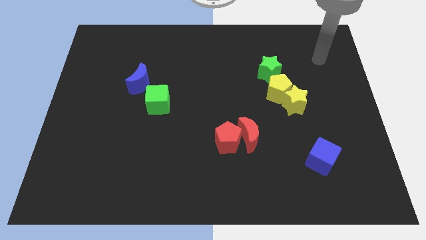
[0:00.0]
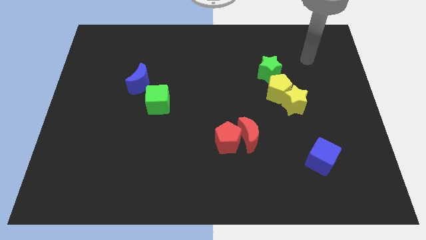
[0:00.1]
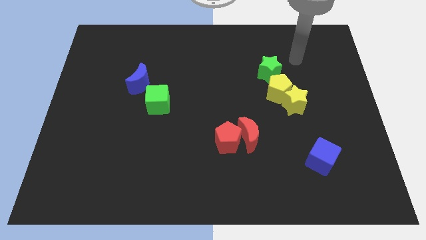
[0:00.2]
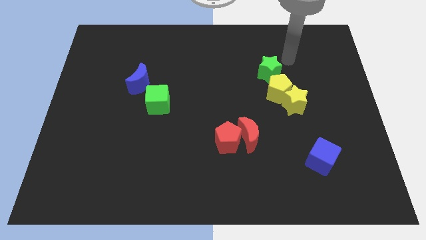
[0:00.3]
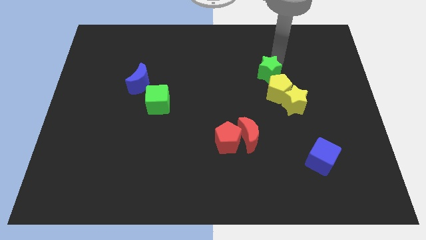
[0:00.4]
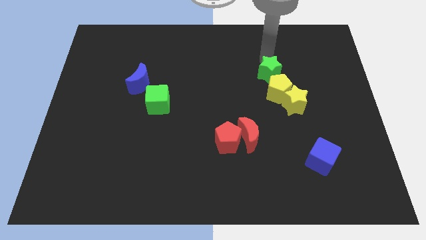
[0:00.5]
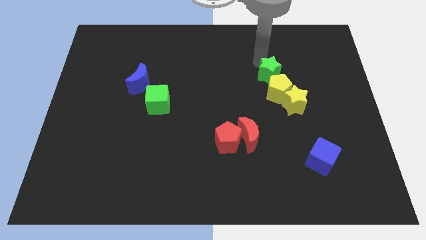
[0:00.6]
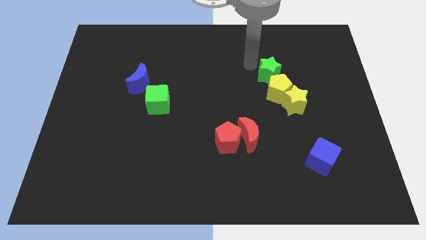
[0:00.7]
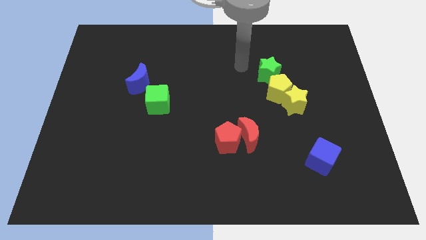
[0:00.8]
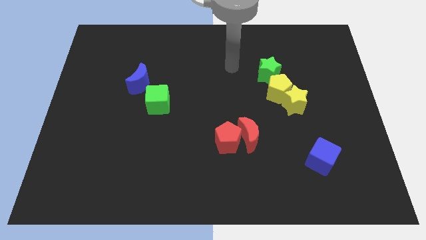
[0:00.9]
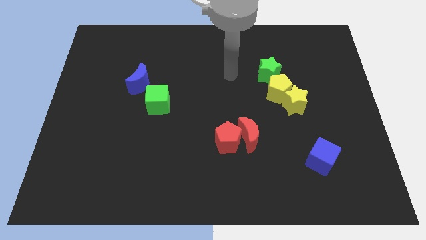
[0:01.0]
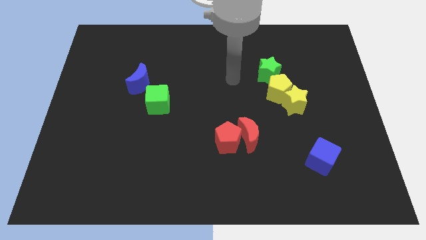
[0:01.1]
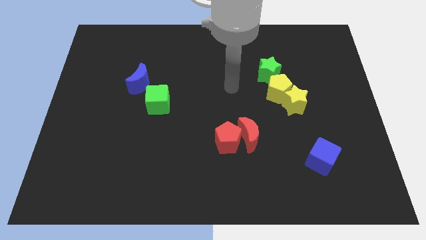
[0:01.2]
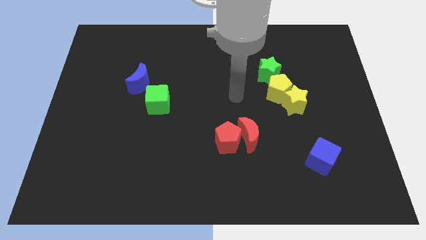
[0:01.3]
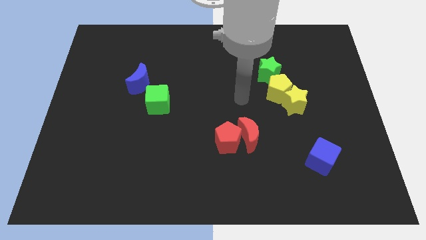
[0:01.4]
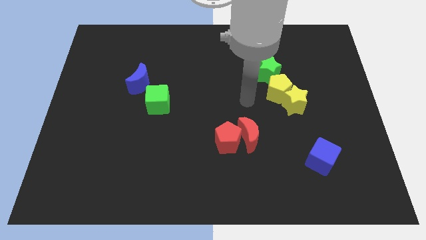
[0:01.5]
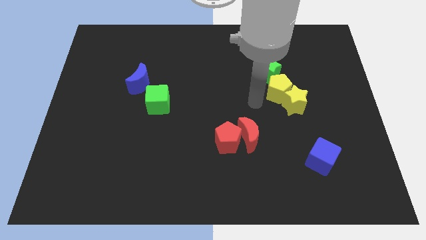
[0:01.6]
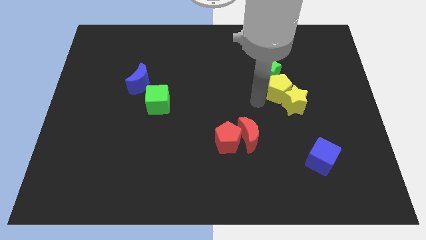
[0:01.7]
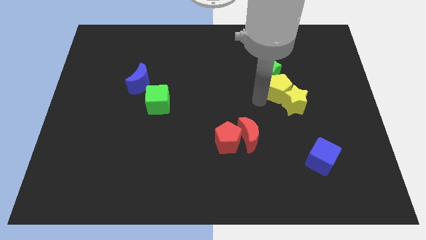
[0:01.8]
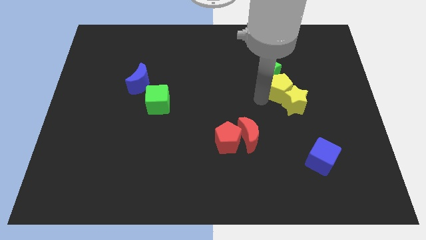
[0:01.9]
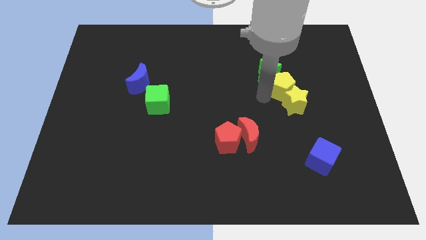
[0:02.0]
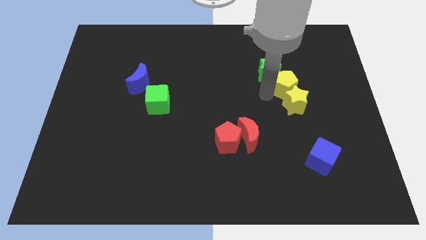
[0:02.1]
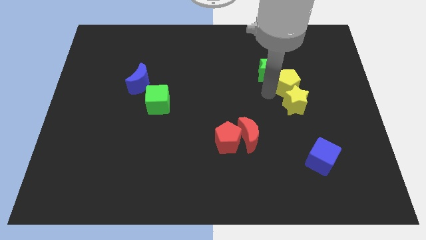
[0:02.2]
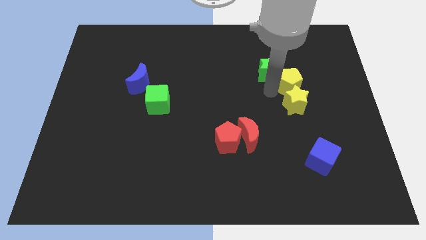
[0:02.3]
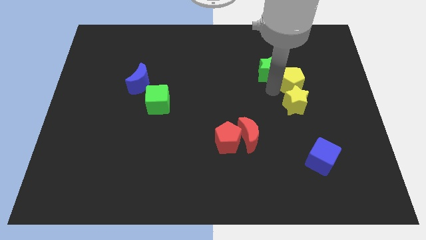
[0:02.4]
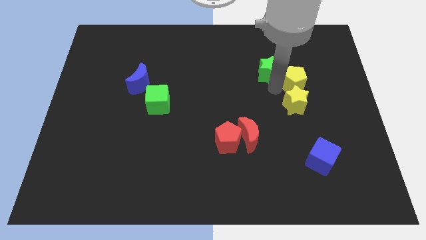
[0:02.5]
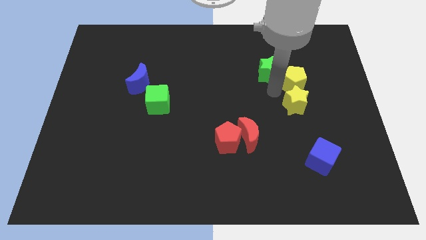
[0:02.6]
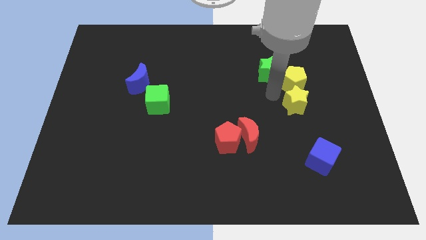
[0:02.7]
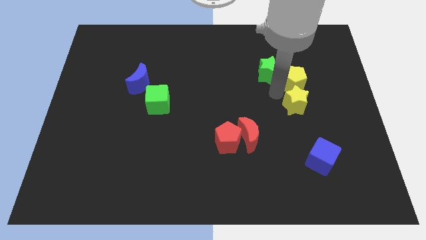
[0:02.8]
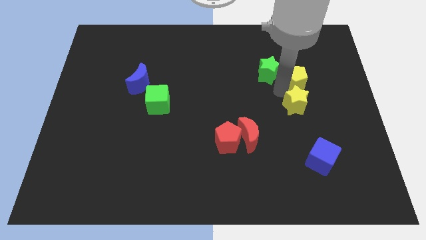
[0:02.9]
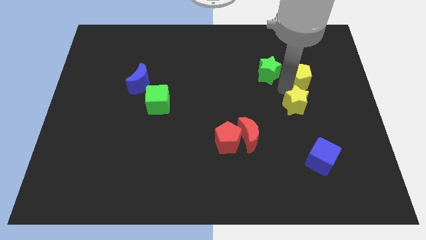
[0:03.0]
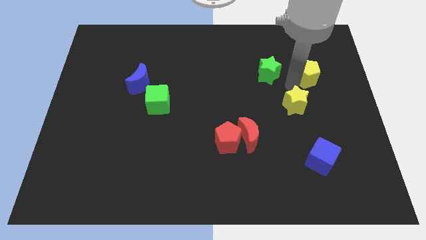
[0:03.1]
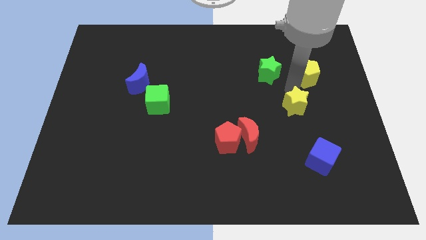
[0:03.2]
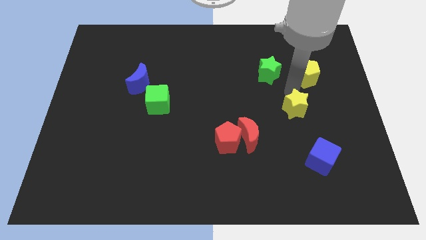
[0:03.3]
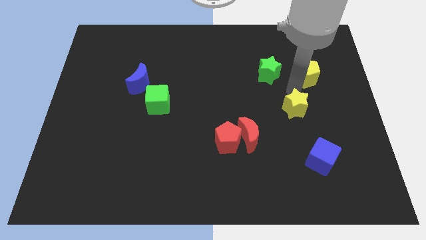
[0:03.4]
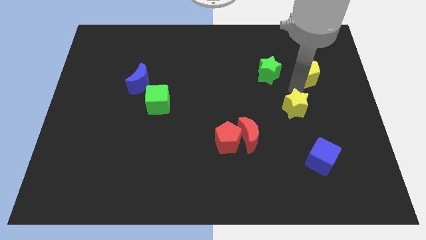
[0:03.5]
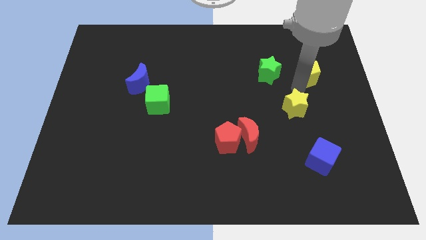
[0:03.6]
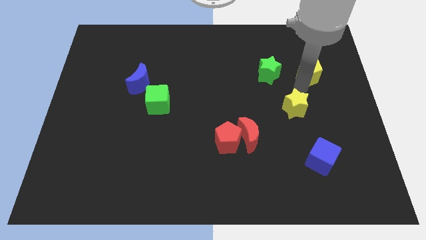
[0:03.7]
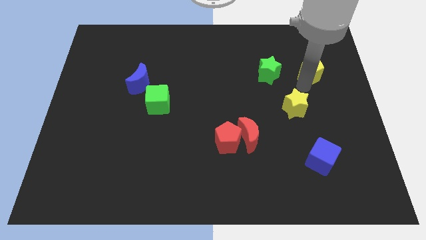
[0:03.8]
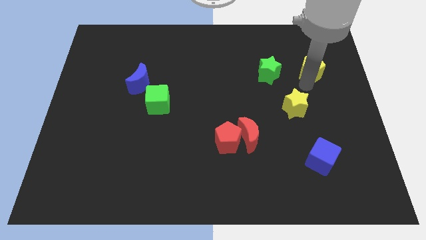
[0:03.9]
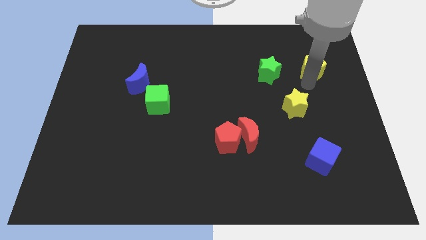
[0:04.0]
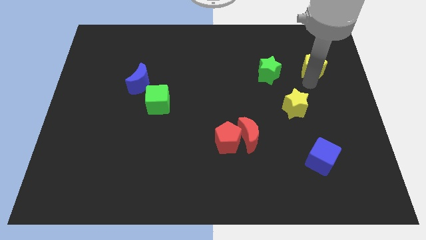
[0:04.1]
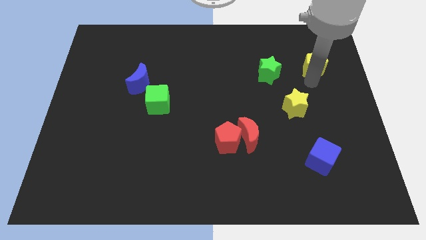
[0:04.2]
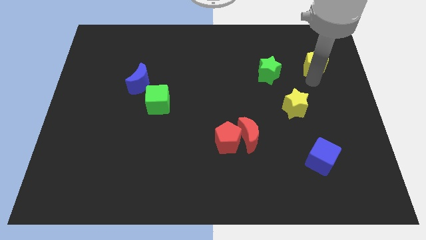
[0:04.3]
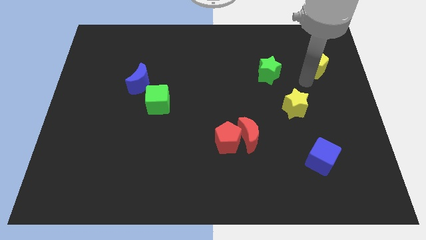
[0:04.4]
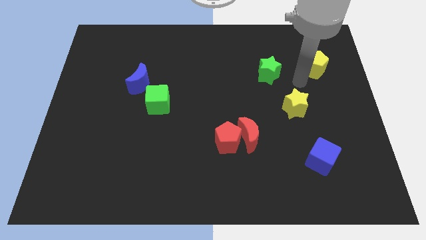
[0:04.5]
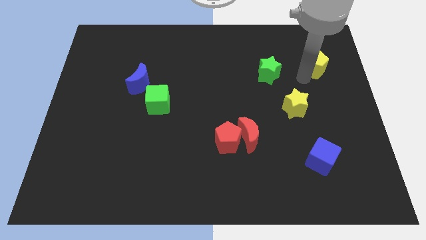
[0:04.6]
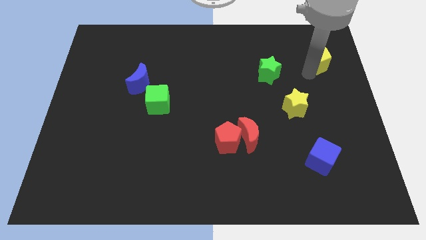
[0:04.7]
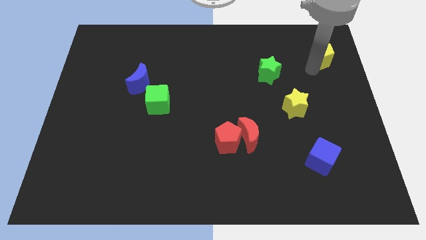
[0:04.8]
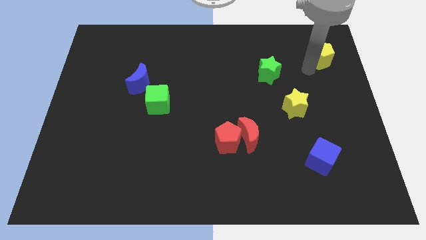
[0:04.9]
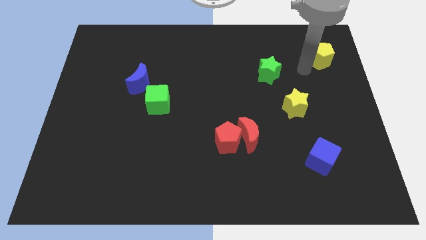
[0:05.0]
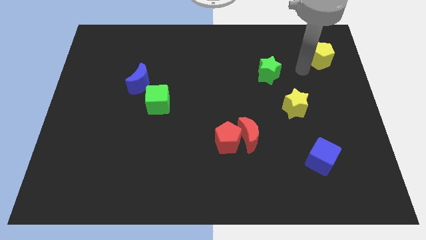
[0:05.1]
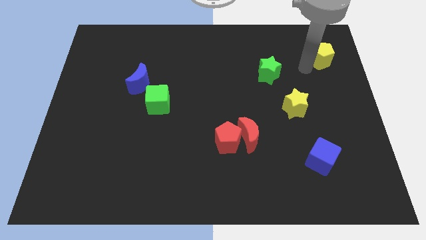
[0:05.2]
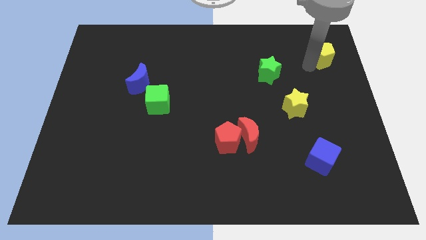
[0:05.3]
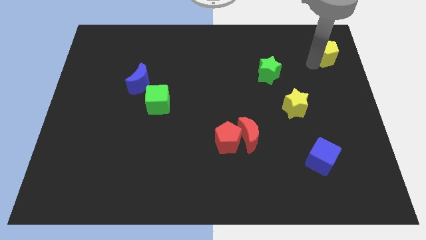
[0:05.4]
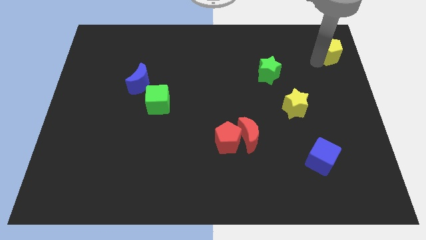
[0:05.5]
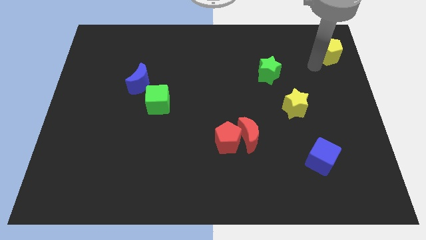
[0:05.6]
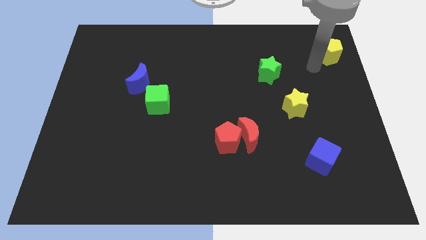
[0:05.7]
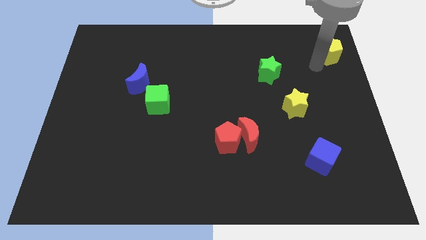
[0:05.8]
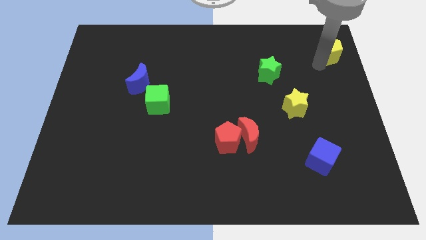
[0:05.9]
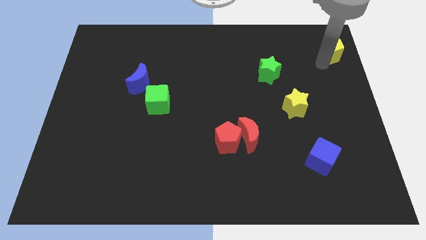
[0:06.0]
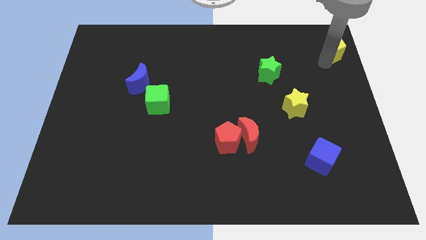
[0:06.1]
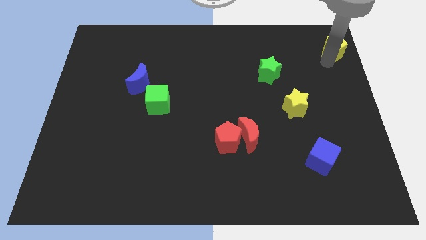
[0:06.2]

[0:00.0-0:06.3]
put the yellow pentagon to the upper right corner

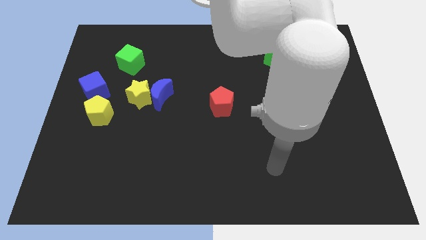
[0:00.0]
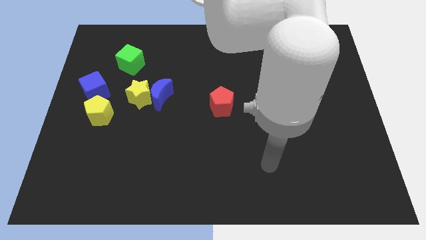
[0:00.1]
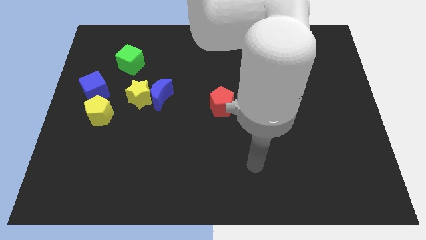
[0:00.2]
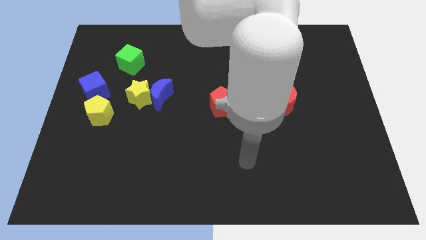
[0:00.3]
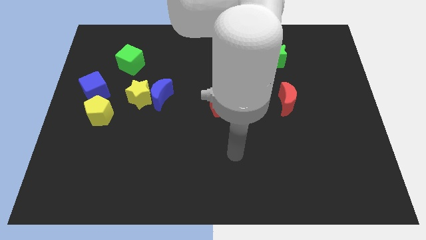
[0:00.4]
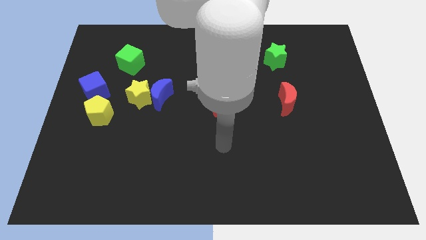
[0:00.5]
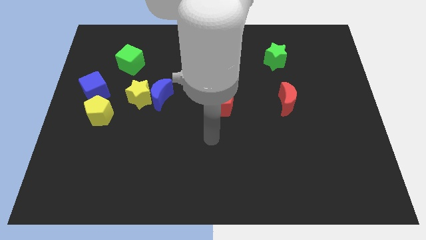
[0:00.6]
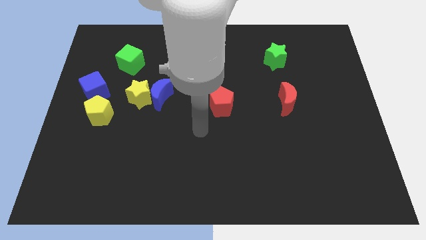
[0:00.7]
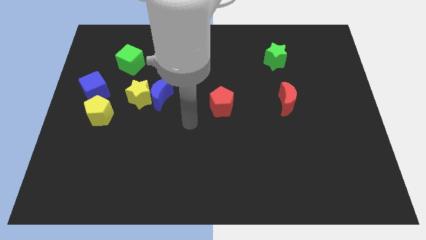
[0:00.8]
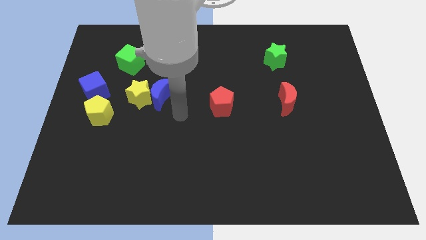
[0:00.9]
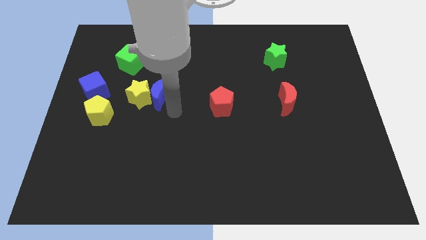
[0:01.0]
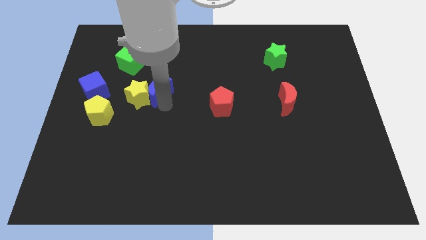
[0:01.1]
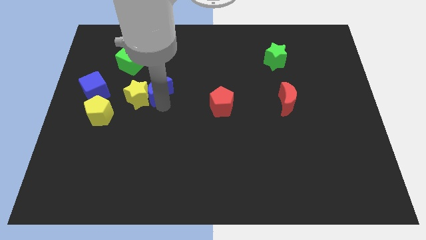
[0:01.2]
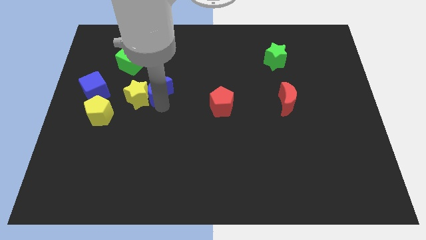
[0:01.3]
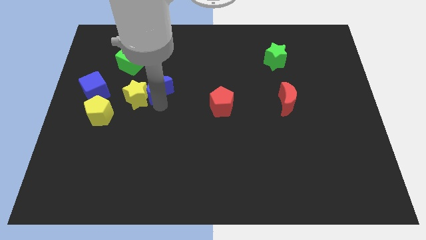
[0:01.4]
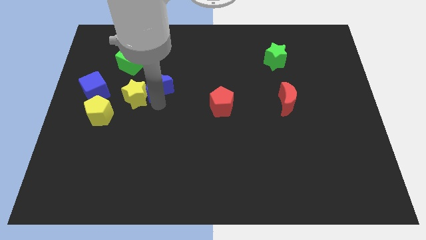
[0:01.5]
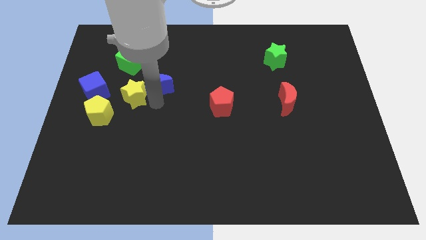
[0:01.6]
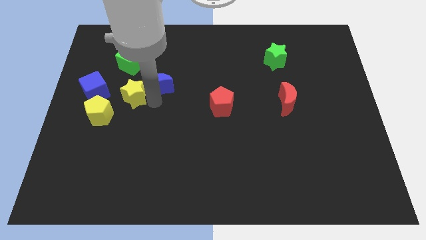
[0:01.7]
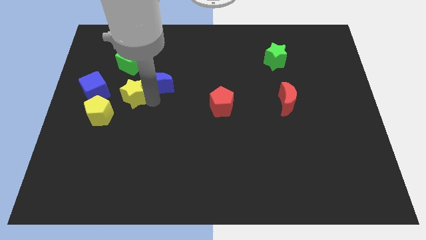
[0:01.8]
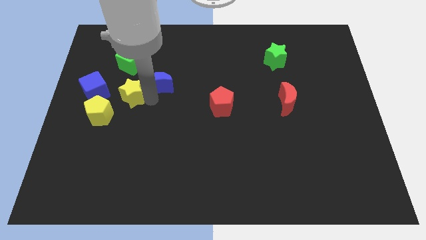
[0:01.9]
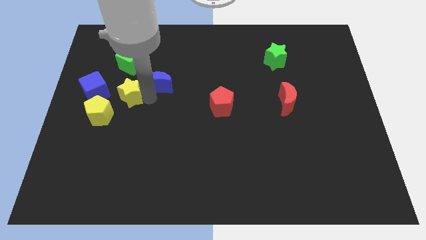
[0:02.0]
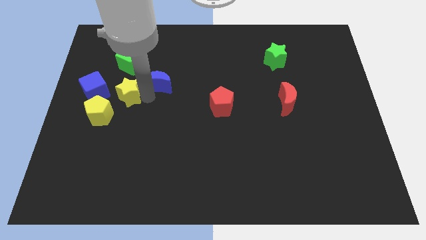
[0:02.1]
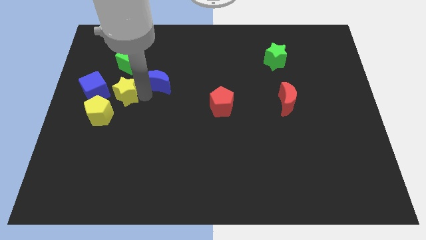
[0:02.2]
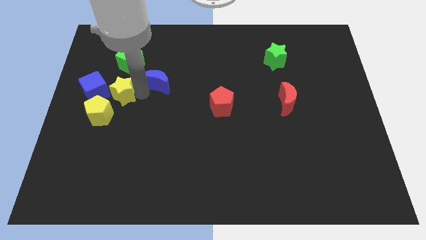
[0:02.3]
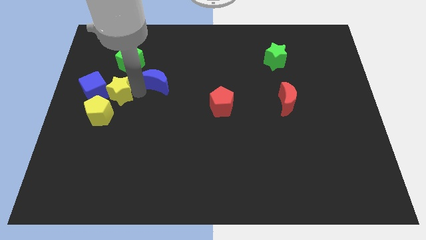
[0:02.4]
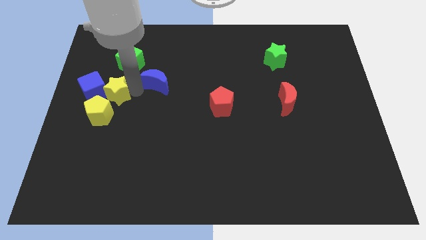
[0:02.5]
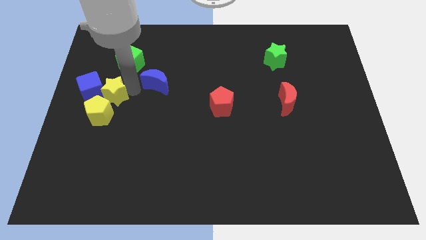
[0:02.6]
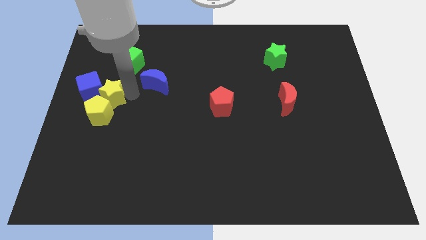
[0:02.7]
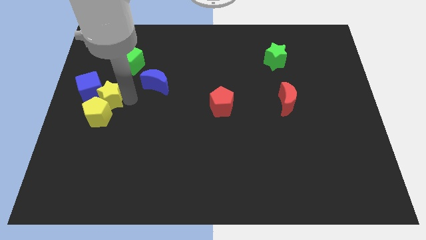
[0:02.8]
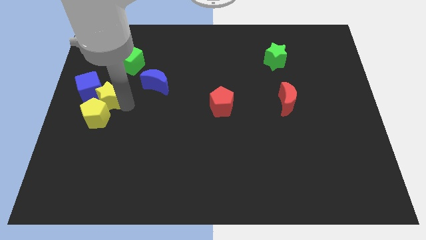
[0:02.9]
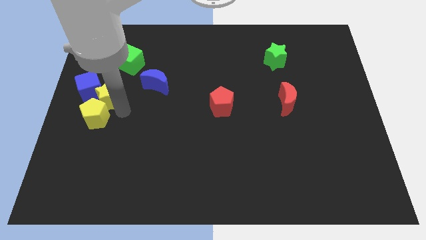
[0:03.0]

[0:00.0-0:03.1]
move the yellow star to the left side of the board
